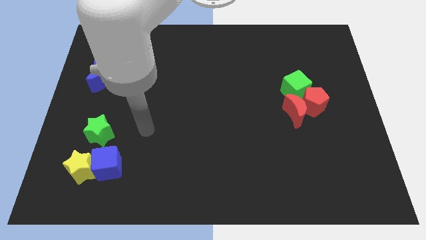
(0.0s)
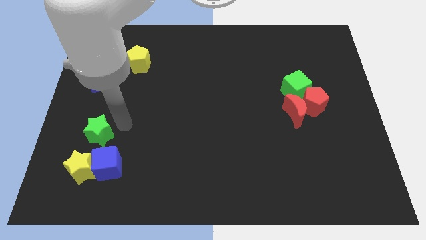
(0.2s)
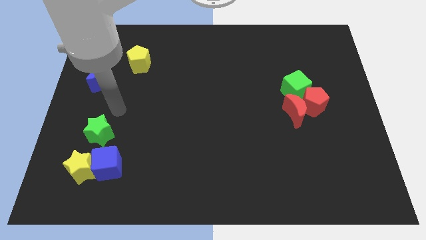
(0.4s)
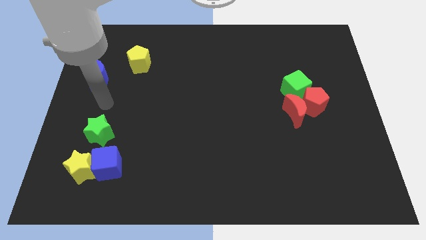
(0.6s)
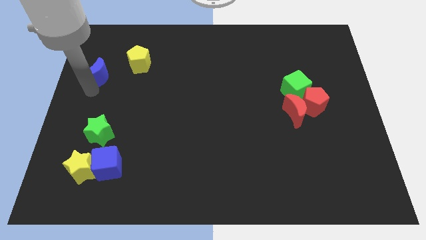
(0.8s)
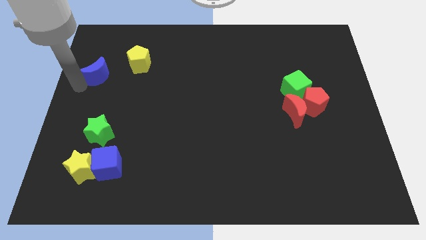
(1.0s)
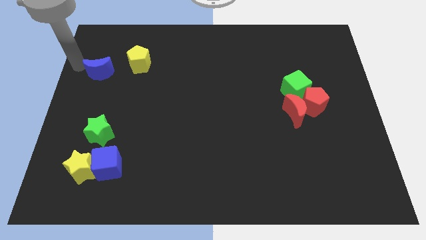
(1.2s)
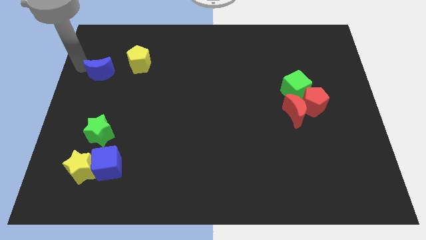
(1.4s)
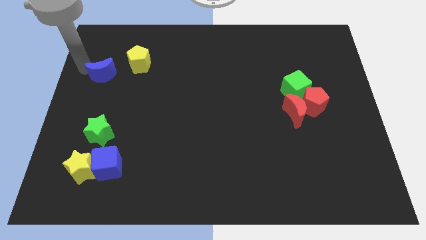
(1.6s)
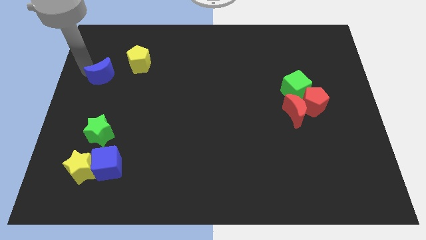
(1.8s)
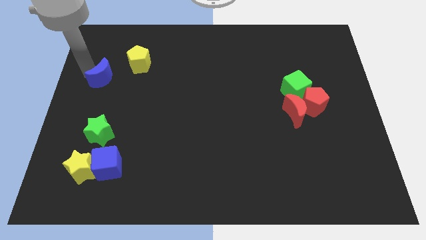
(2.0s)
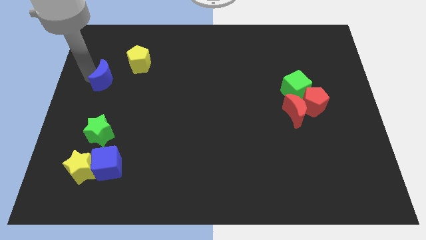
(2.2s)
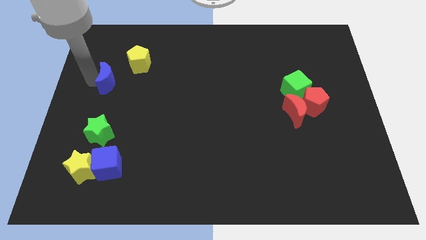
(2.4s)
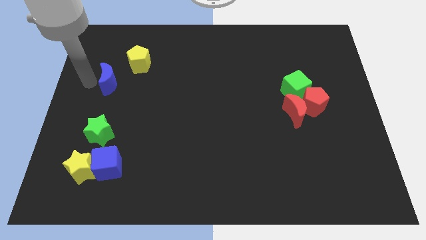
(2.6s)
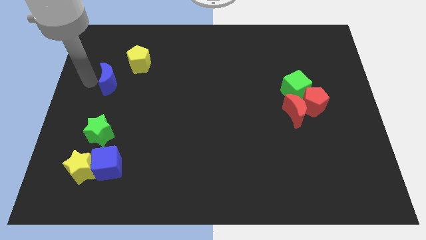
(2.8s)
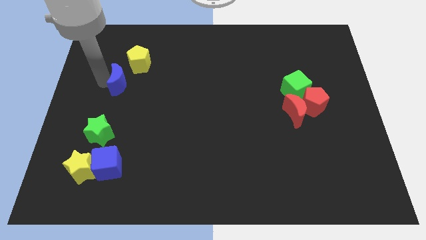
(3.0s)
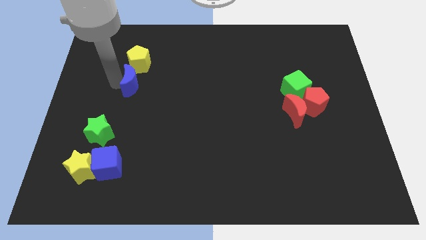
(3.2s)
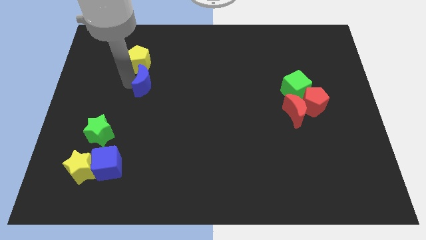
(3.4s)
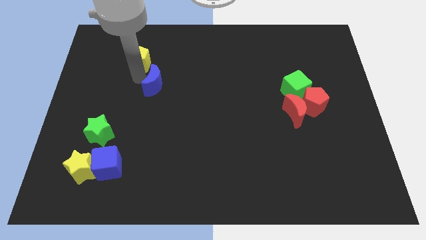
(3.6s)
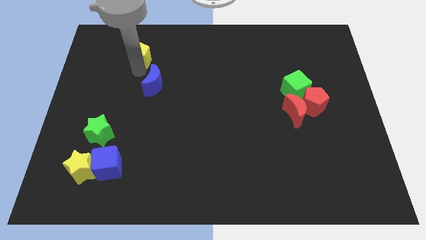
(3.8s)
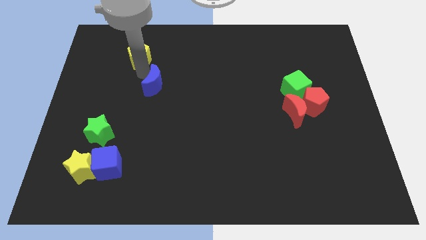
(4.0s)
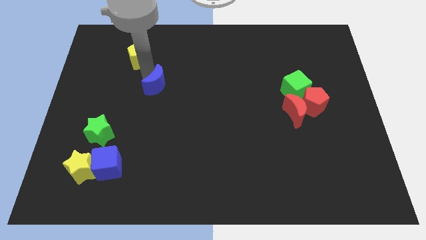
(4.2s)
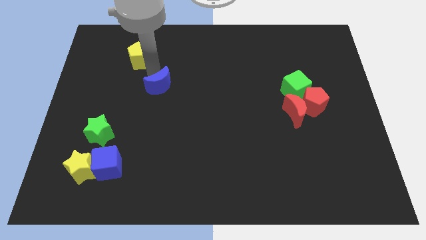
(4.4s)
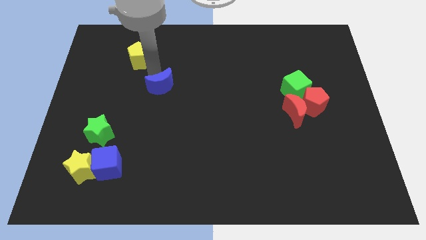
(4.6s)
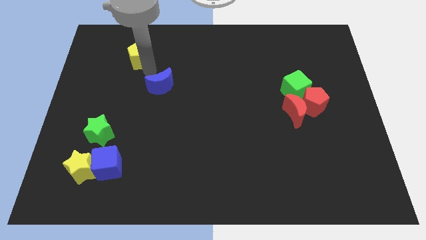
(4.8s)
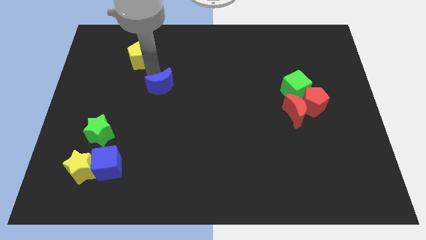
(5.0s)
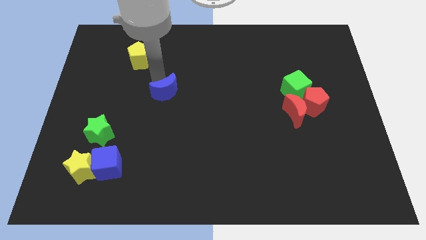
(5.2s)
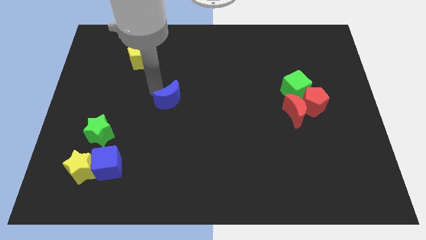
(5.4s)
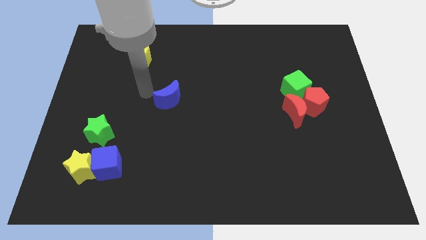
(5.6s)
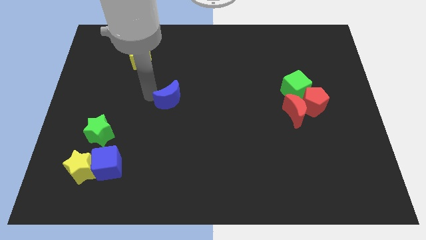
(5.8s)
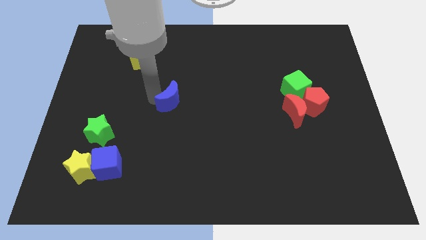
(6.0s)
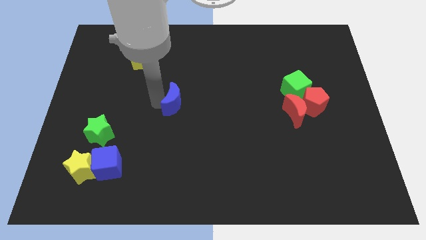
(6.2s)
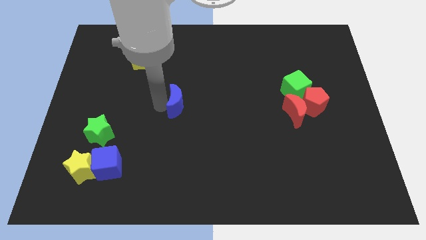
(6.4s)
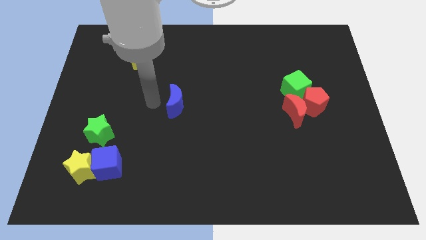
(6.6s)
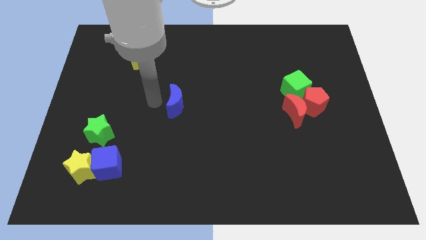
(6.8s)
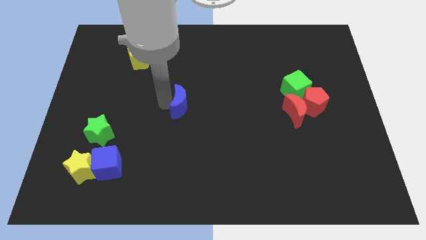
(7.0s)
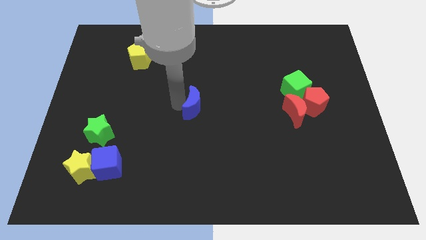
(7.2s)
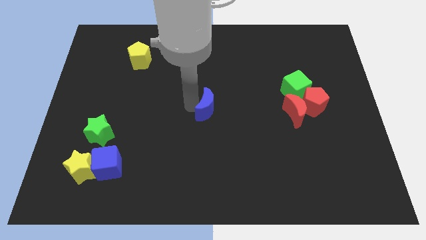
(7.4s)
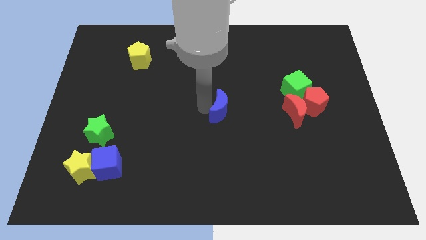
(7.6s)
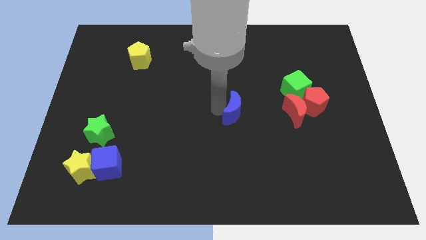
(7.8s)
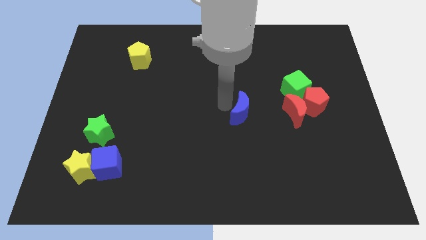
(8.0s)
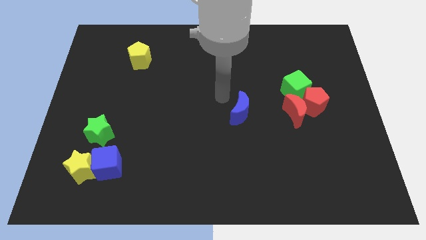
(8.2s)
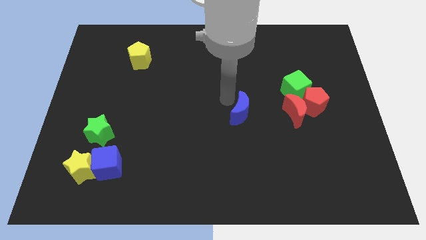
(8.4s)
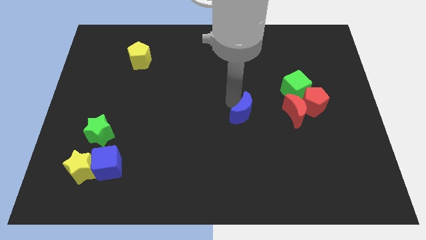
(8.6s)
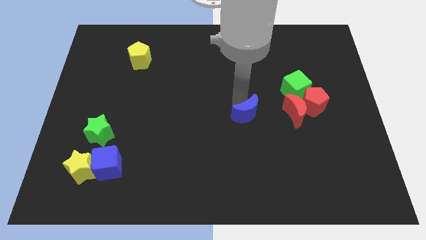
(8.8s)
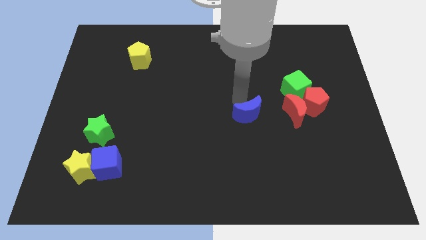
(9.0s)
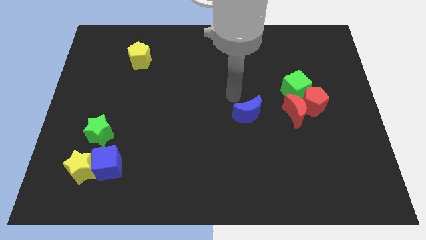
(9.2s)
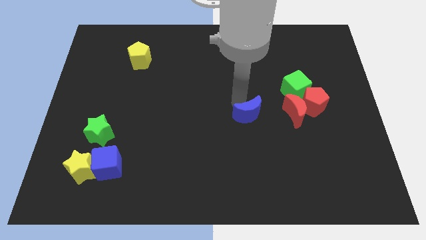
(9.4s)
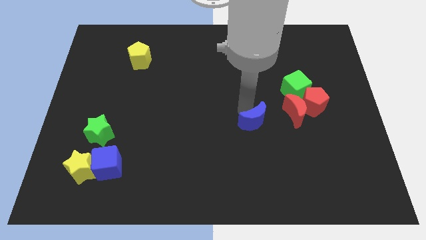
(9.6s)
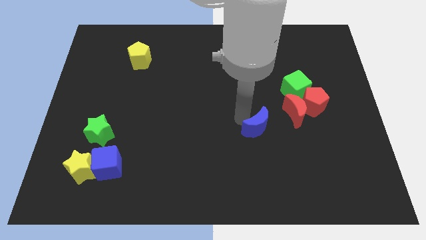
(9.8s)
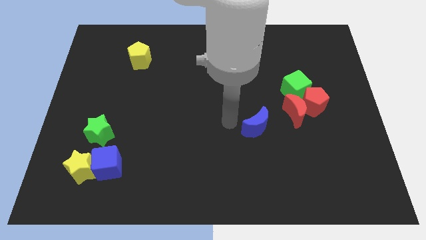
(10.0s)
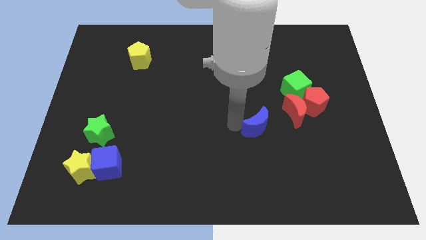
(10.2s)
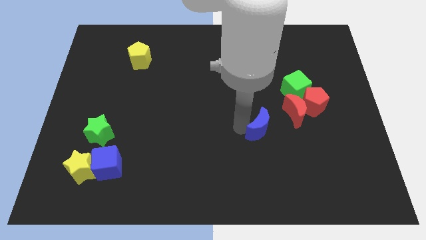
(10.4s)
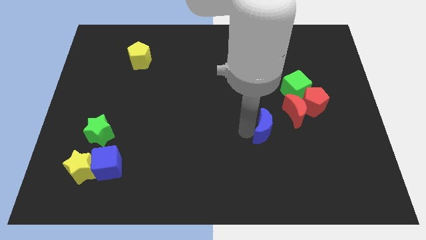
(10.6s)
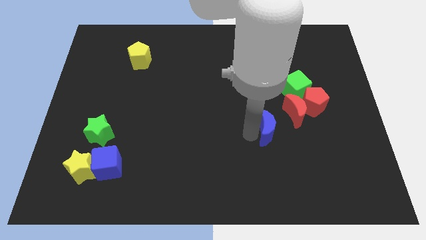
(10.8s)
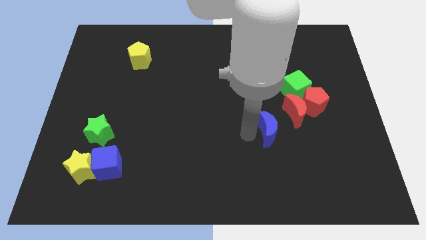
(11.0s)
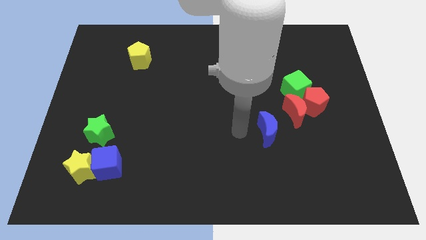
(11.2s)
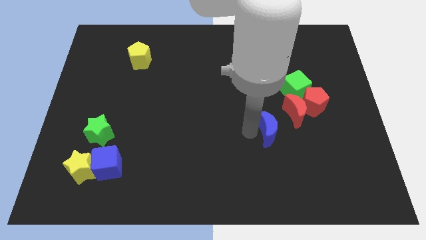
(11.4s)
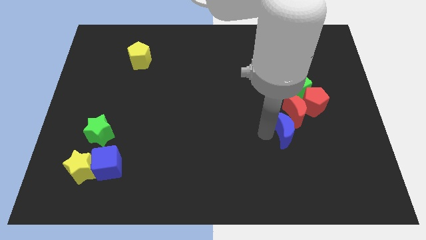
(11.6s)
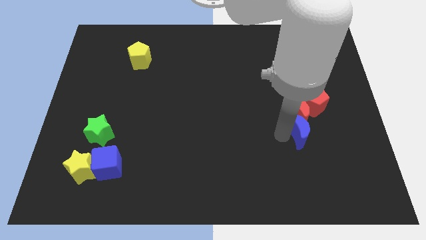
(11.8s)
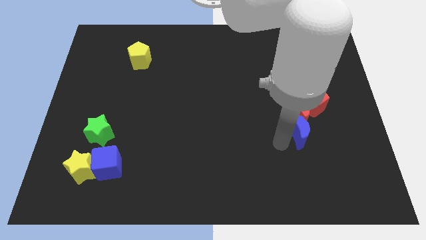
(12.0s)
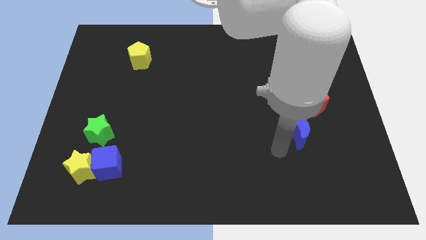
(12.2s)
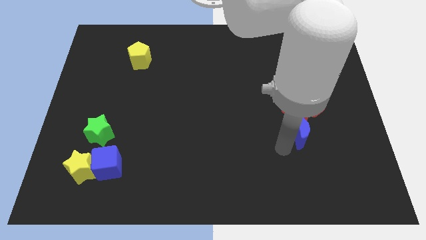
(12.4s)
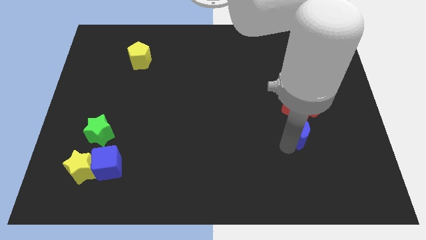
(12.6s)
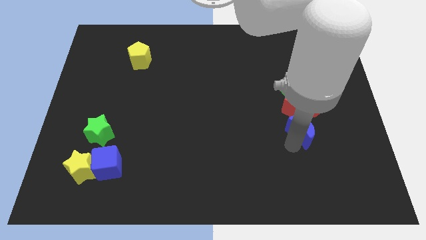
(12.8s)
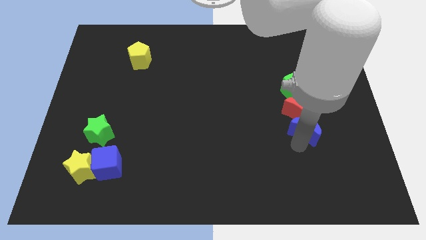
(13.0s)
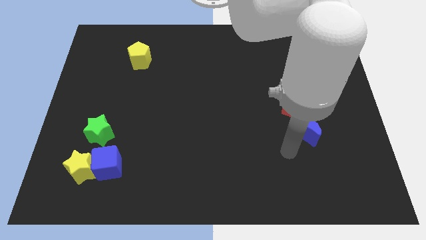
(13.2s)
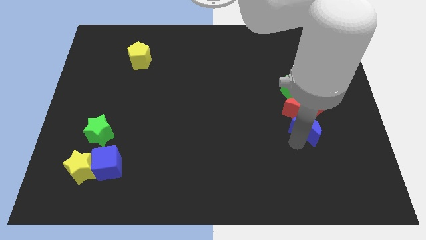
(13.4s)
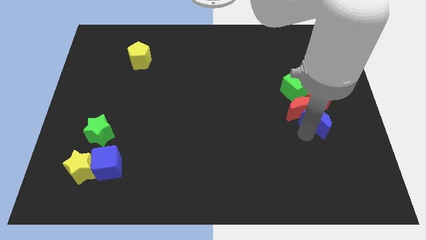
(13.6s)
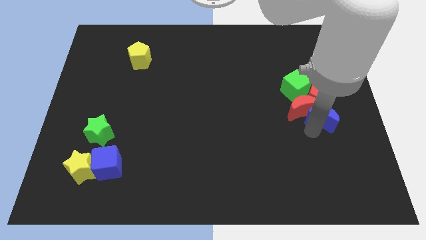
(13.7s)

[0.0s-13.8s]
push the blue moon close to the red pentagon
